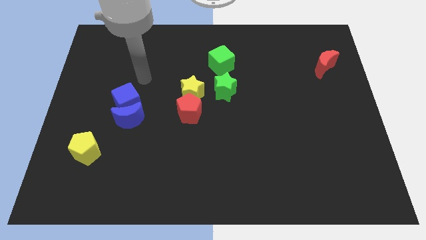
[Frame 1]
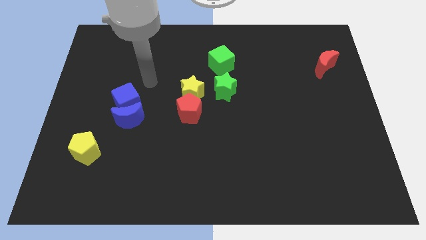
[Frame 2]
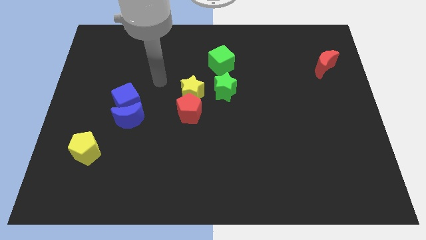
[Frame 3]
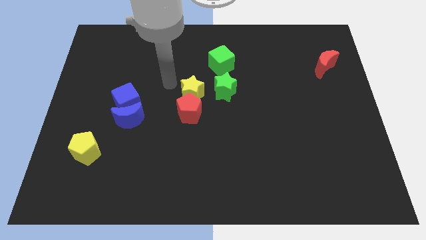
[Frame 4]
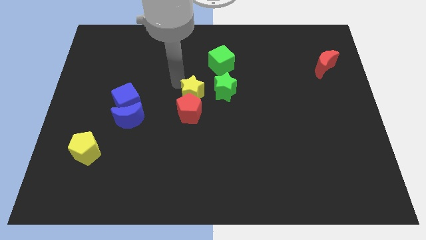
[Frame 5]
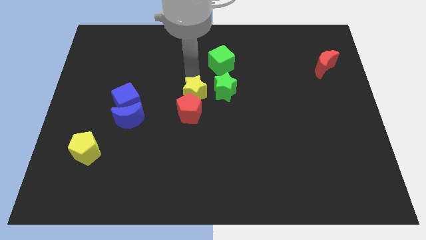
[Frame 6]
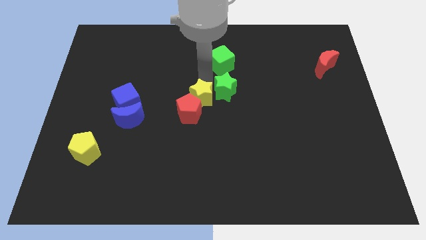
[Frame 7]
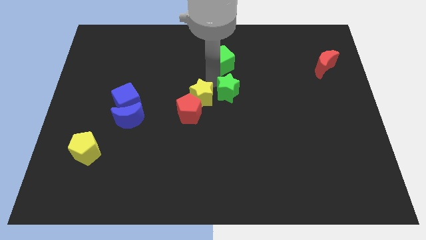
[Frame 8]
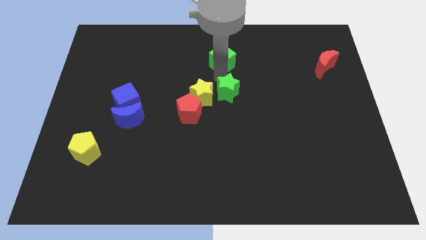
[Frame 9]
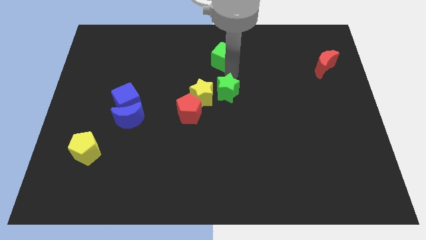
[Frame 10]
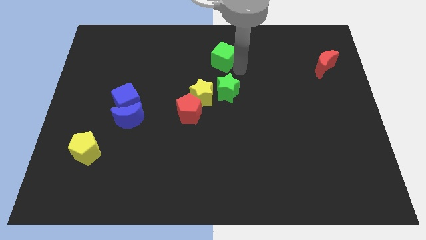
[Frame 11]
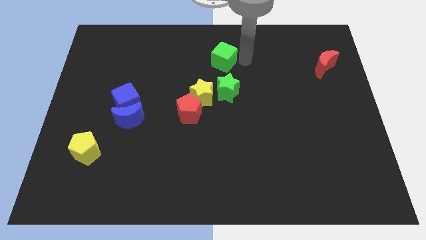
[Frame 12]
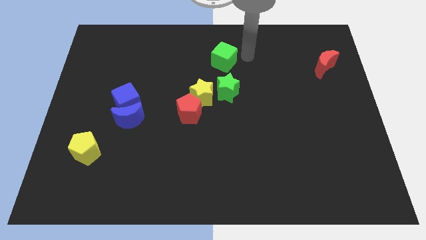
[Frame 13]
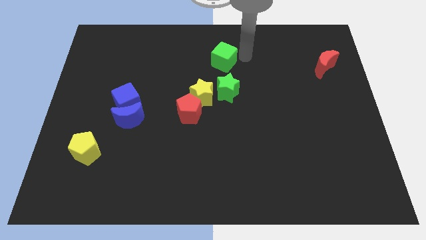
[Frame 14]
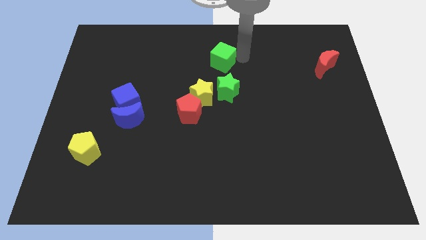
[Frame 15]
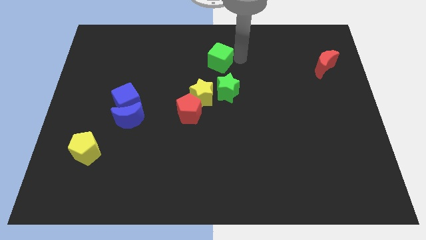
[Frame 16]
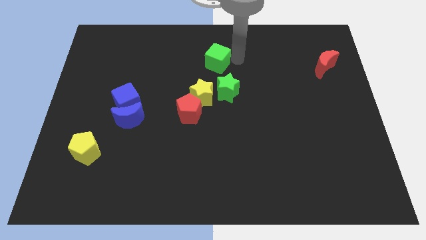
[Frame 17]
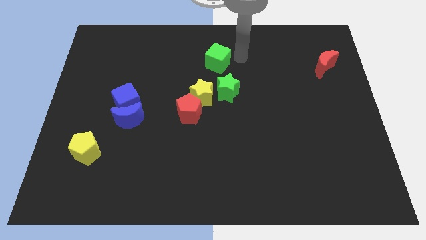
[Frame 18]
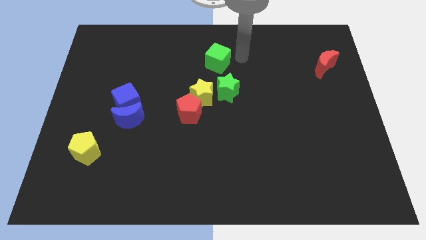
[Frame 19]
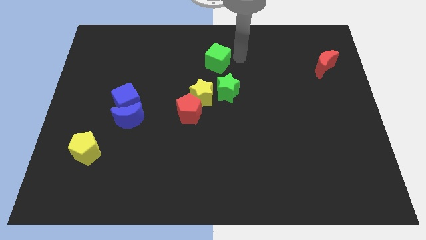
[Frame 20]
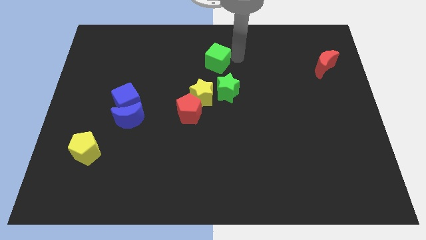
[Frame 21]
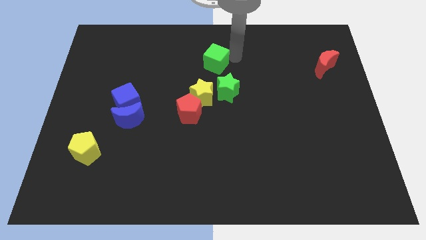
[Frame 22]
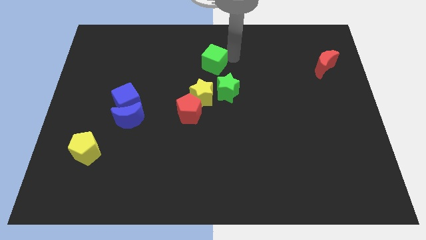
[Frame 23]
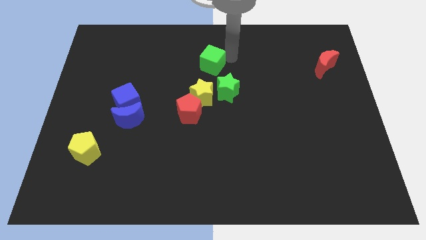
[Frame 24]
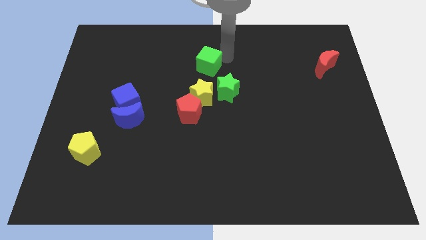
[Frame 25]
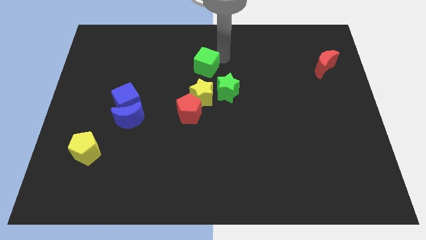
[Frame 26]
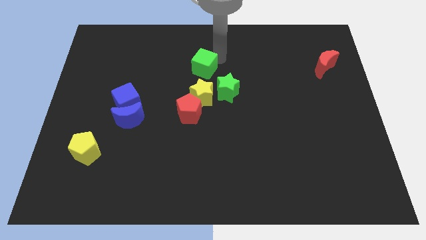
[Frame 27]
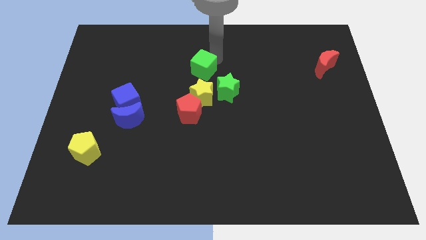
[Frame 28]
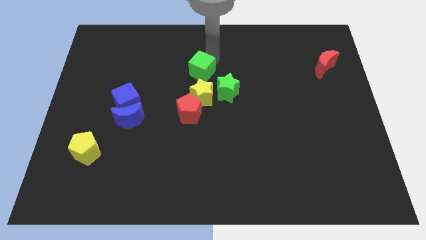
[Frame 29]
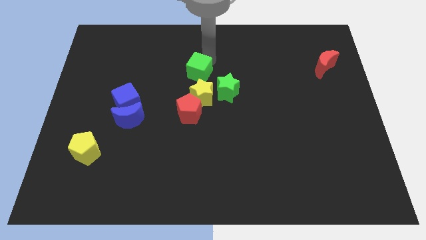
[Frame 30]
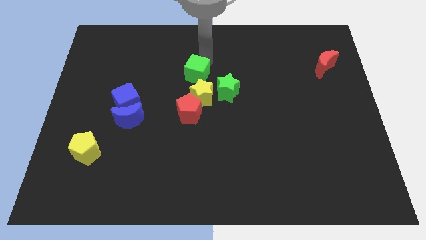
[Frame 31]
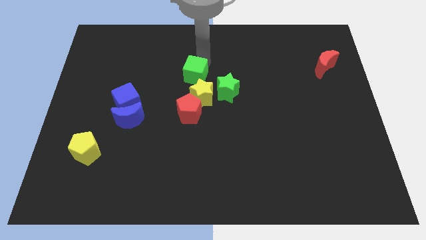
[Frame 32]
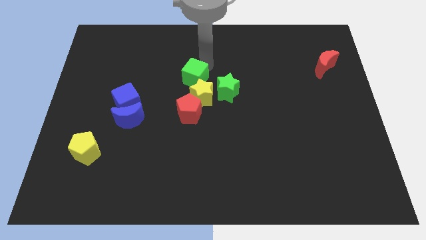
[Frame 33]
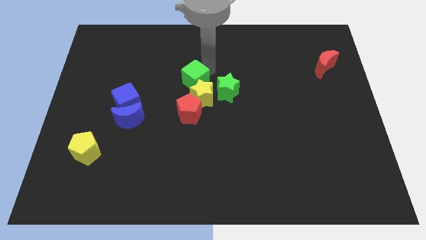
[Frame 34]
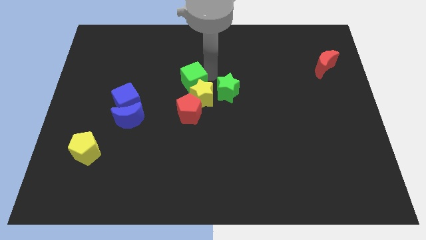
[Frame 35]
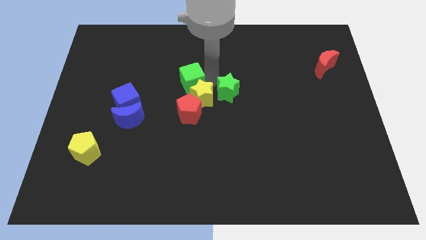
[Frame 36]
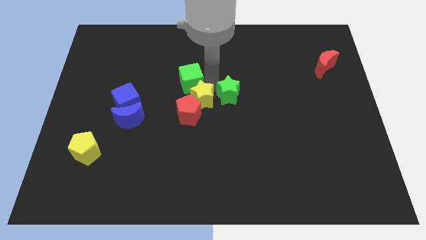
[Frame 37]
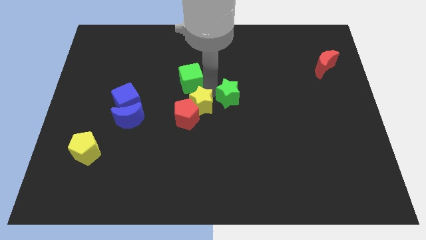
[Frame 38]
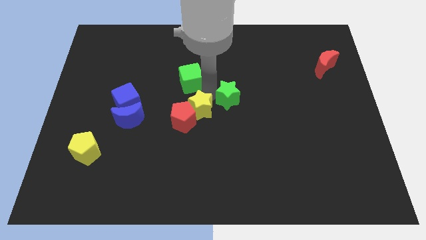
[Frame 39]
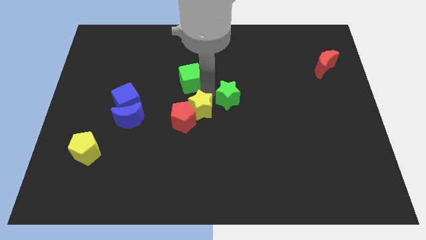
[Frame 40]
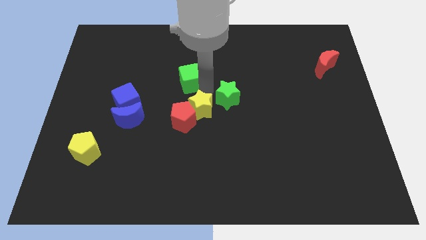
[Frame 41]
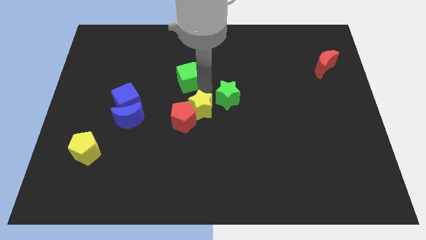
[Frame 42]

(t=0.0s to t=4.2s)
push the green cube to the left a bit

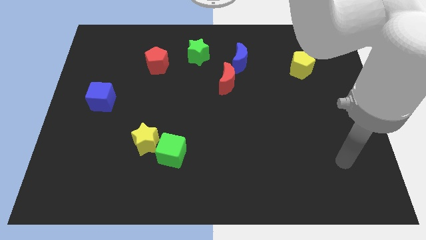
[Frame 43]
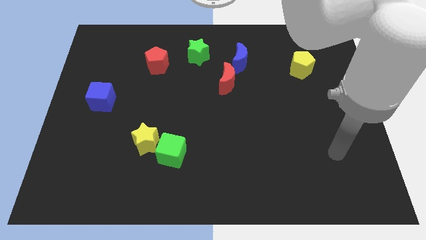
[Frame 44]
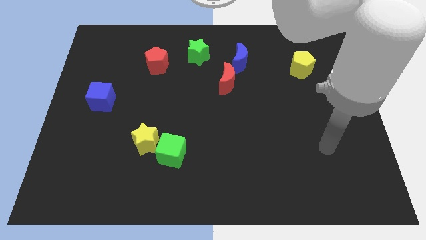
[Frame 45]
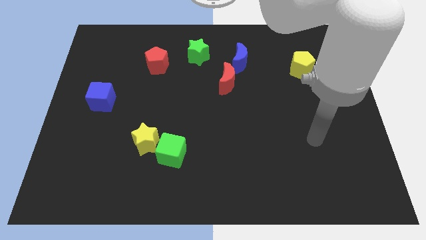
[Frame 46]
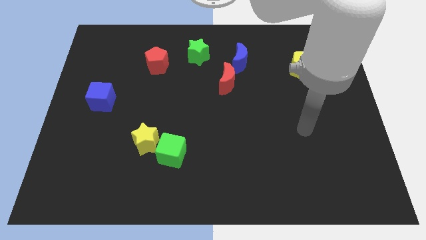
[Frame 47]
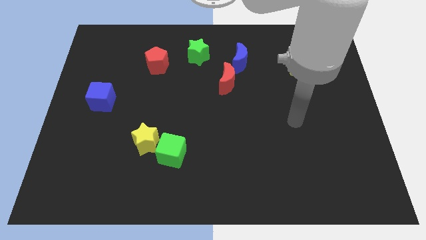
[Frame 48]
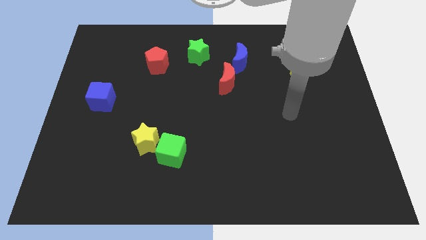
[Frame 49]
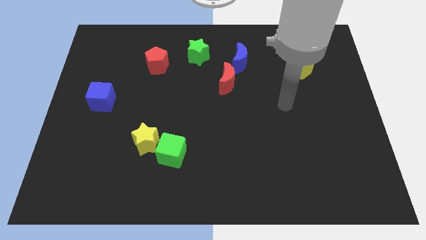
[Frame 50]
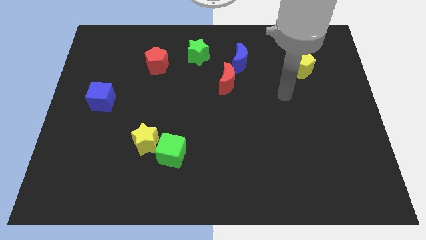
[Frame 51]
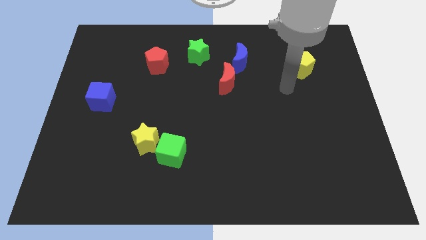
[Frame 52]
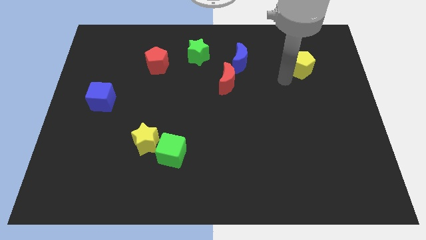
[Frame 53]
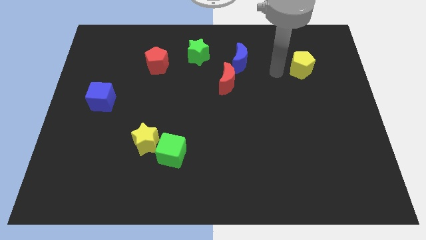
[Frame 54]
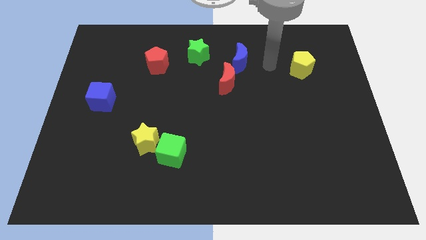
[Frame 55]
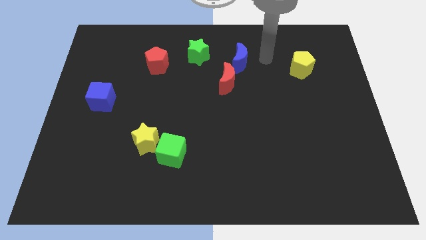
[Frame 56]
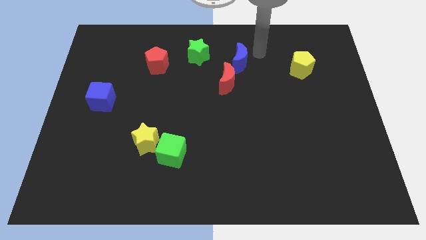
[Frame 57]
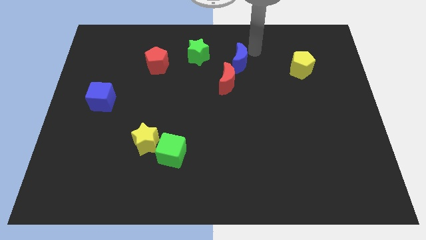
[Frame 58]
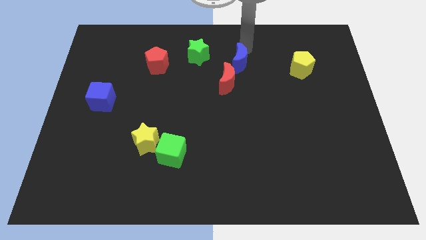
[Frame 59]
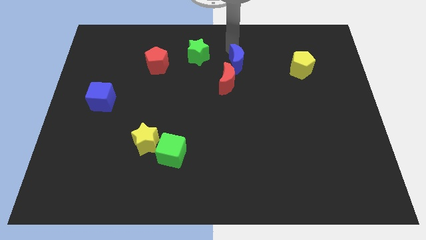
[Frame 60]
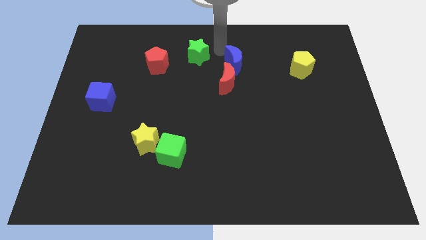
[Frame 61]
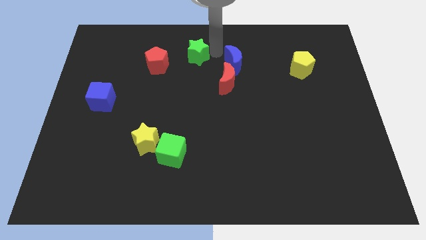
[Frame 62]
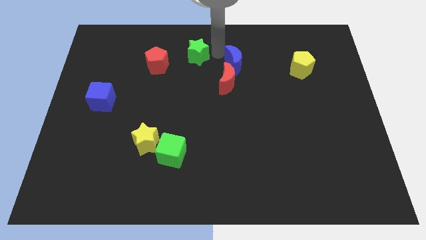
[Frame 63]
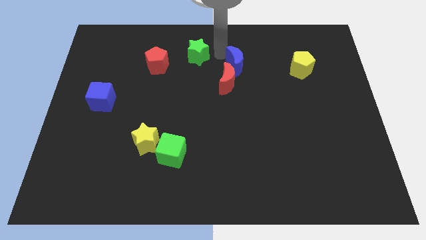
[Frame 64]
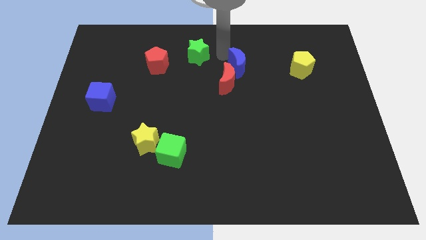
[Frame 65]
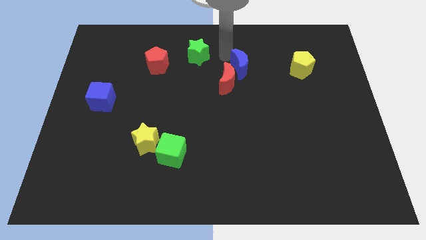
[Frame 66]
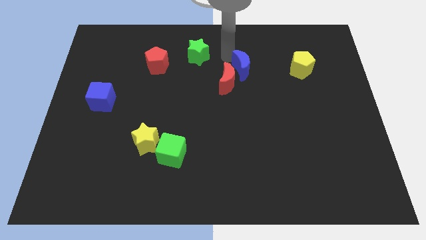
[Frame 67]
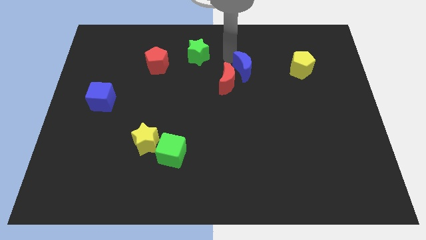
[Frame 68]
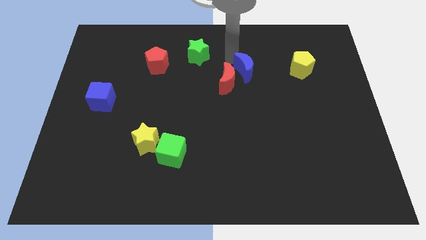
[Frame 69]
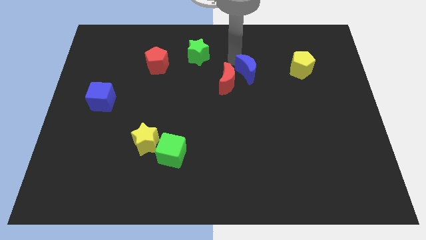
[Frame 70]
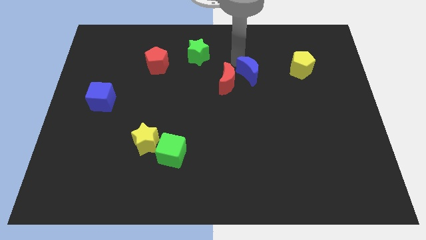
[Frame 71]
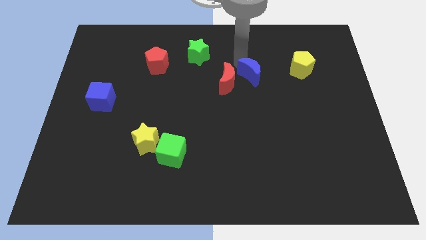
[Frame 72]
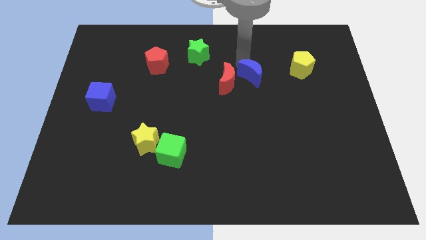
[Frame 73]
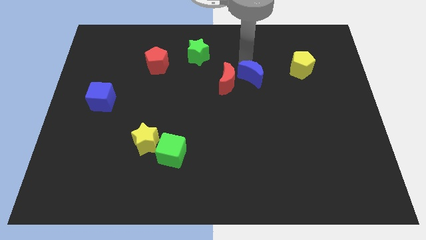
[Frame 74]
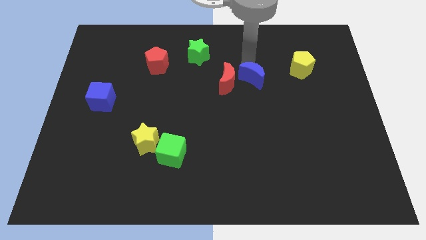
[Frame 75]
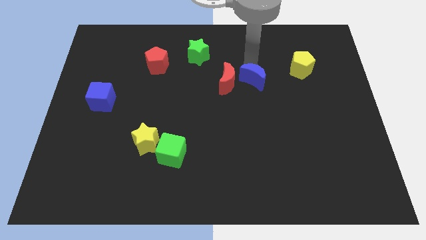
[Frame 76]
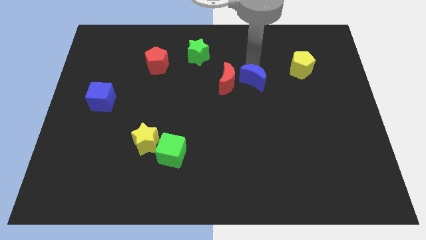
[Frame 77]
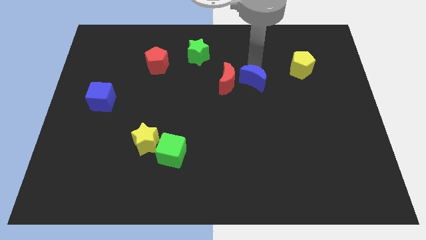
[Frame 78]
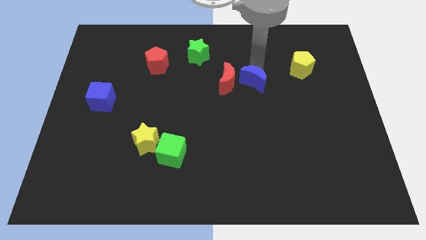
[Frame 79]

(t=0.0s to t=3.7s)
push the blue moon diagonally downwards and to the right slightly

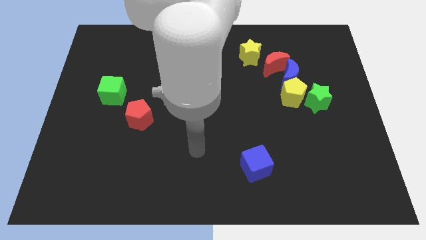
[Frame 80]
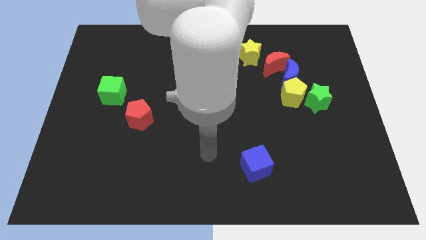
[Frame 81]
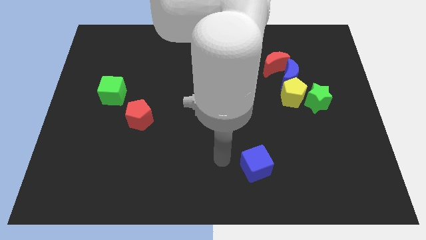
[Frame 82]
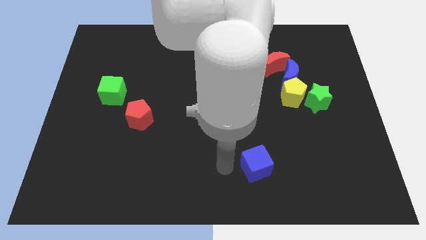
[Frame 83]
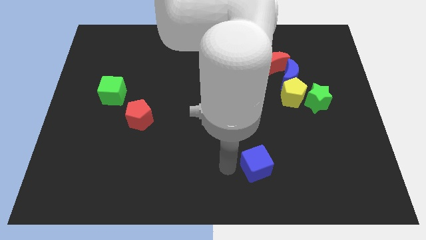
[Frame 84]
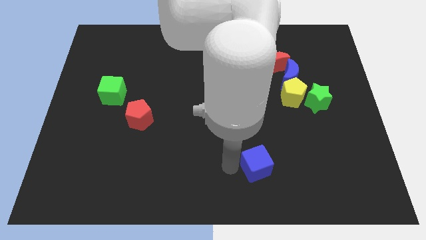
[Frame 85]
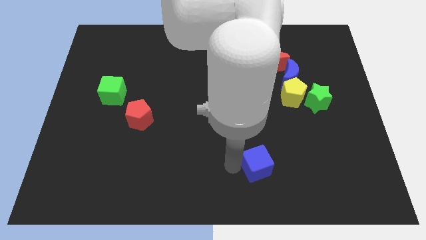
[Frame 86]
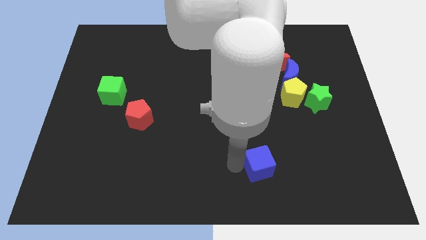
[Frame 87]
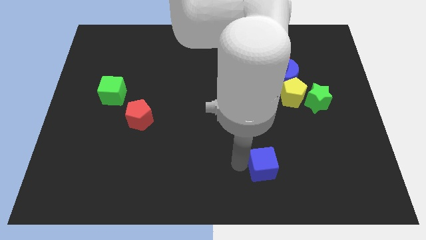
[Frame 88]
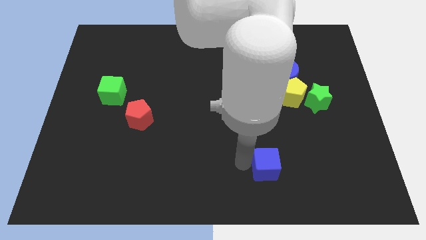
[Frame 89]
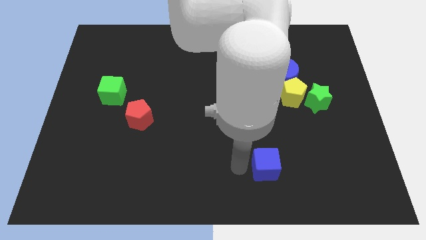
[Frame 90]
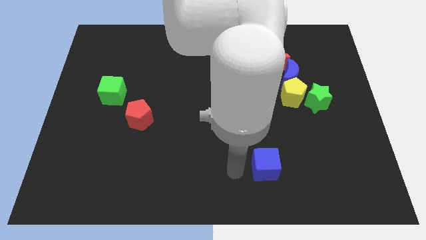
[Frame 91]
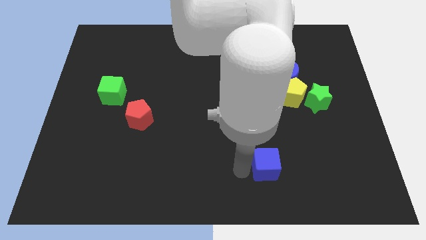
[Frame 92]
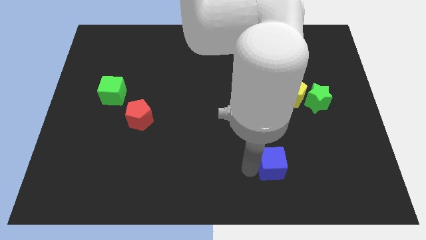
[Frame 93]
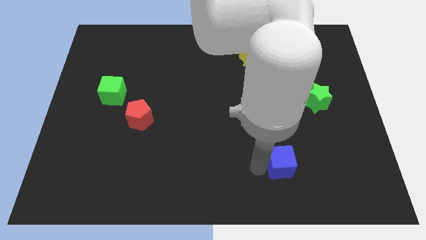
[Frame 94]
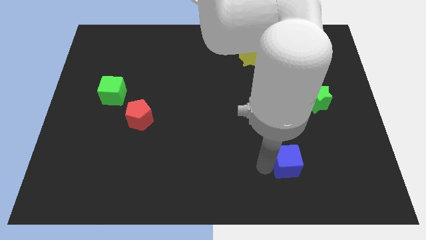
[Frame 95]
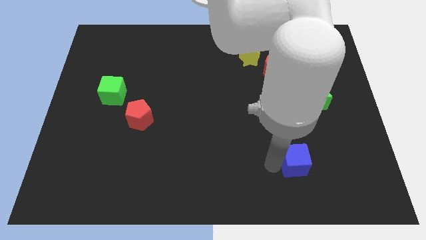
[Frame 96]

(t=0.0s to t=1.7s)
push the blue cube somewhat right
